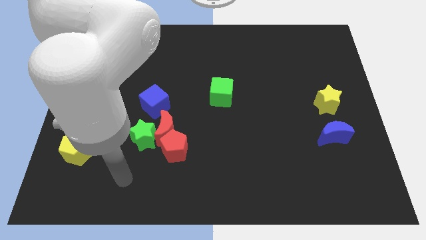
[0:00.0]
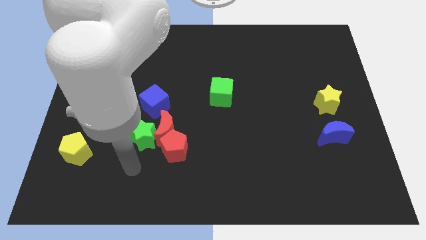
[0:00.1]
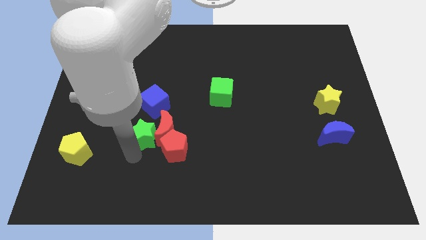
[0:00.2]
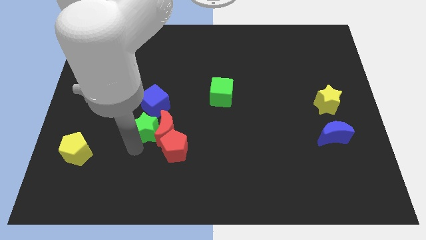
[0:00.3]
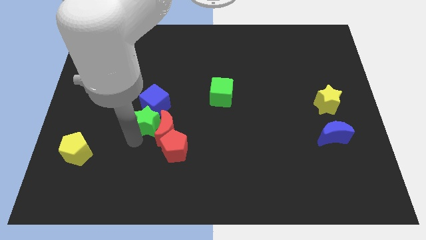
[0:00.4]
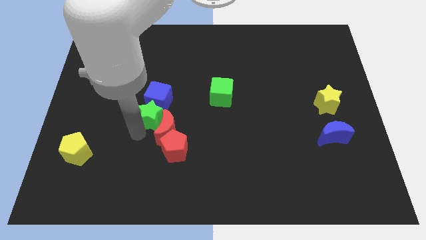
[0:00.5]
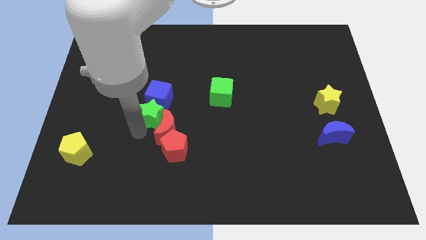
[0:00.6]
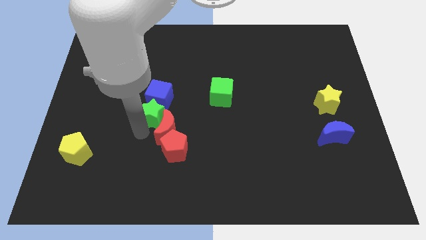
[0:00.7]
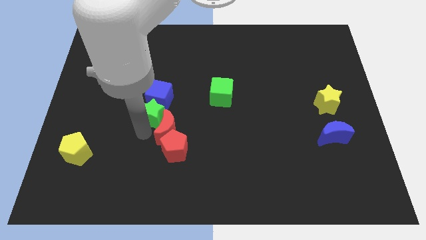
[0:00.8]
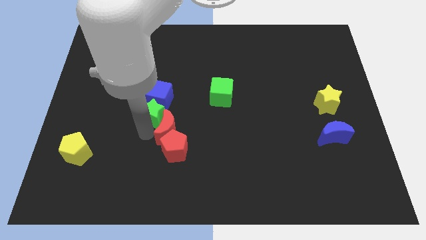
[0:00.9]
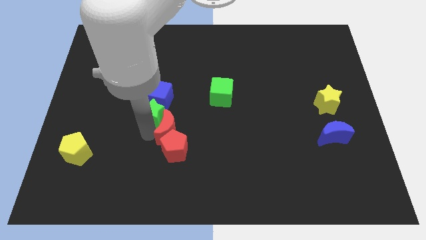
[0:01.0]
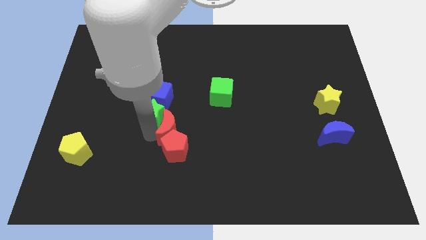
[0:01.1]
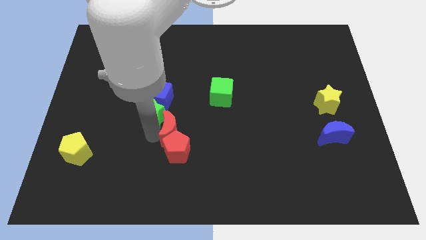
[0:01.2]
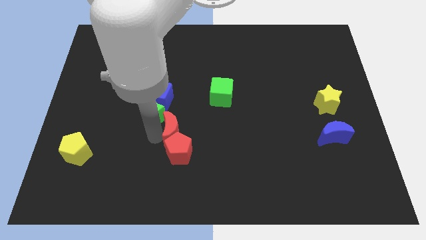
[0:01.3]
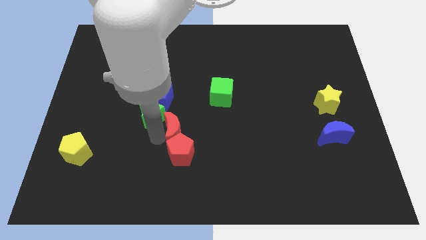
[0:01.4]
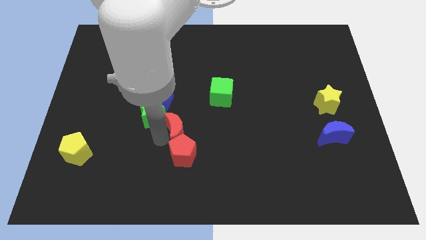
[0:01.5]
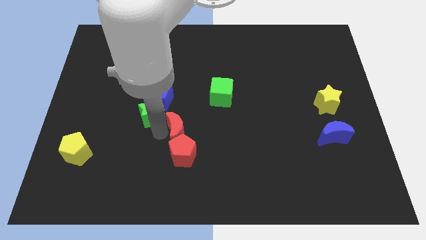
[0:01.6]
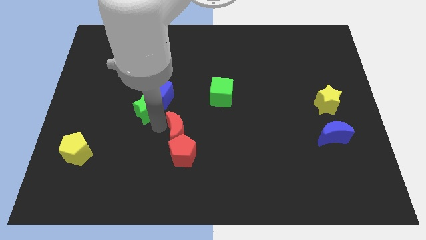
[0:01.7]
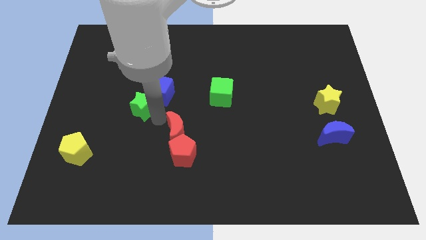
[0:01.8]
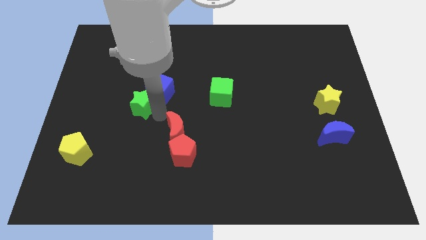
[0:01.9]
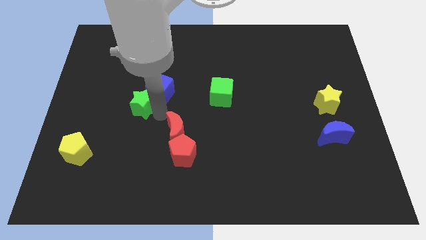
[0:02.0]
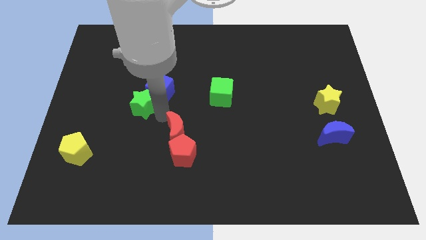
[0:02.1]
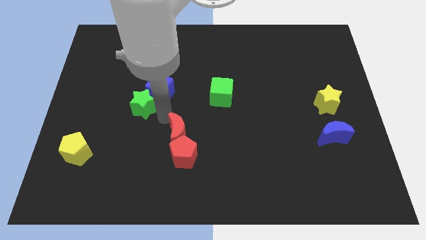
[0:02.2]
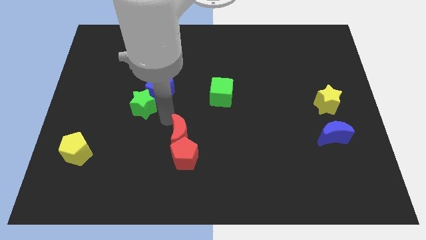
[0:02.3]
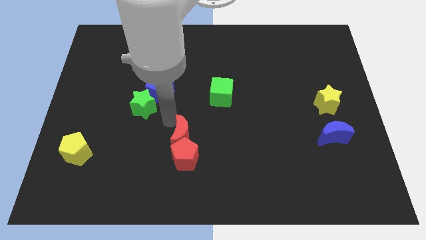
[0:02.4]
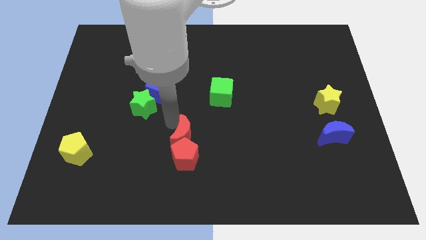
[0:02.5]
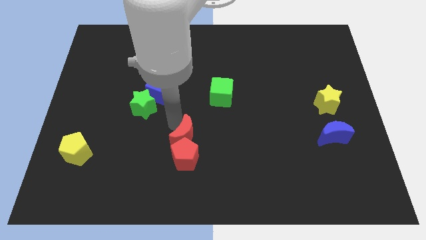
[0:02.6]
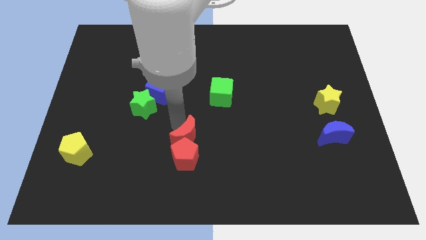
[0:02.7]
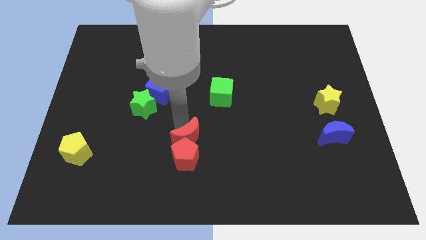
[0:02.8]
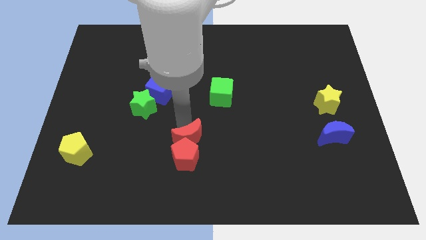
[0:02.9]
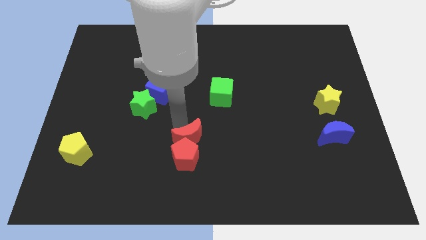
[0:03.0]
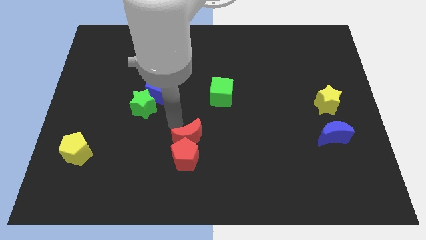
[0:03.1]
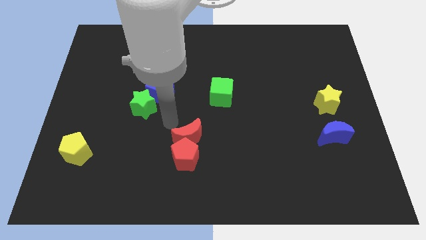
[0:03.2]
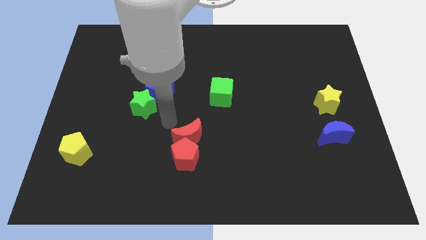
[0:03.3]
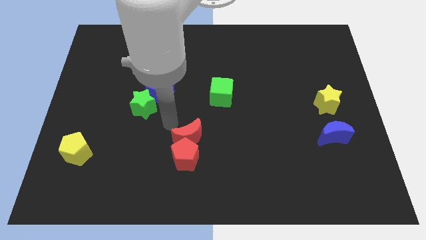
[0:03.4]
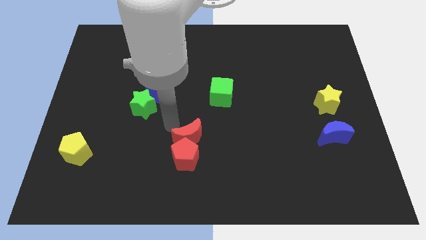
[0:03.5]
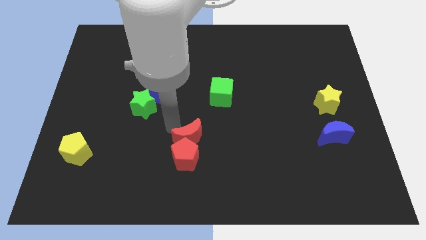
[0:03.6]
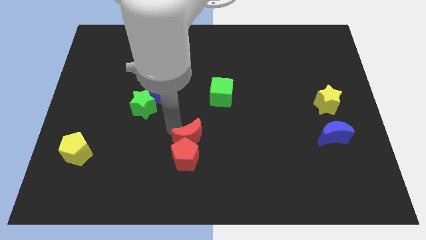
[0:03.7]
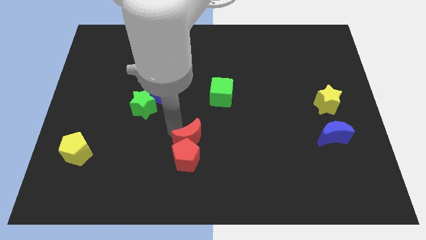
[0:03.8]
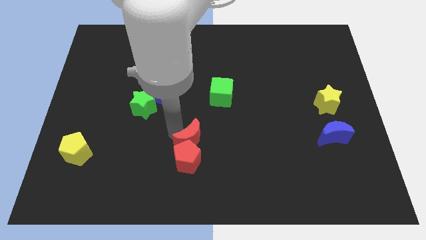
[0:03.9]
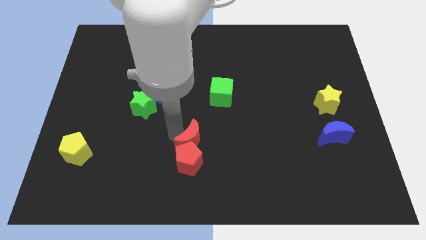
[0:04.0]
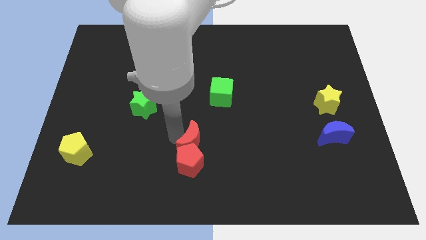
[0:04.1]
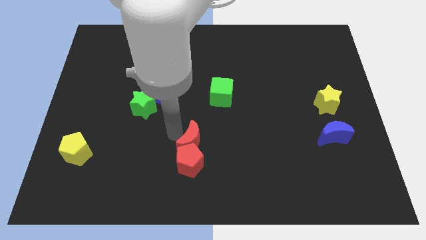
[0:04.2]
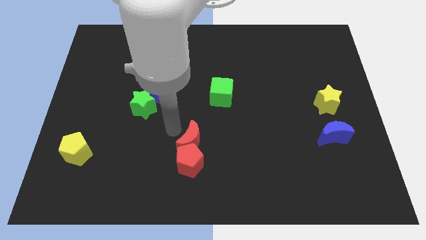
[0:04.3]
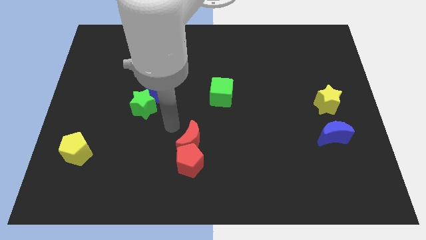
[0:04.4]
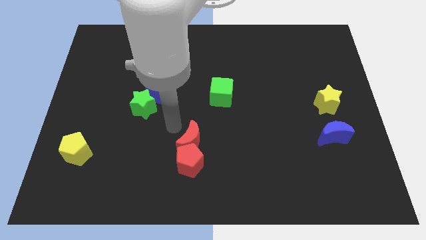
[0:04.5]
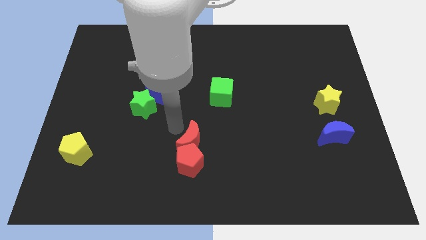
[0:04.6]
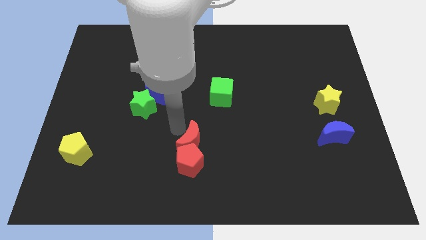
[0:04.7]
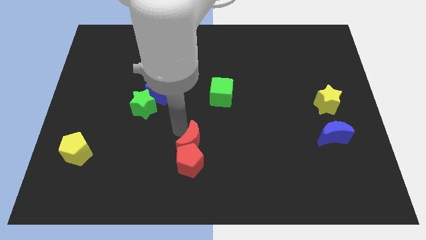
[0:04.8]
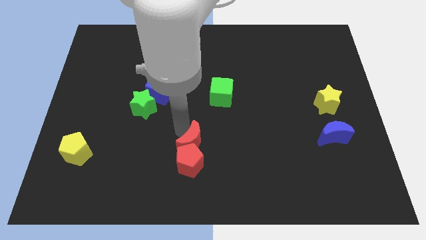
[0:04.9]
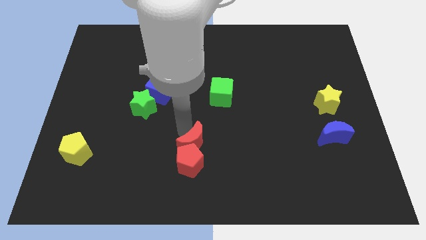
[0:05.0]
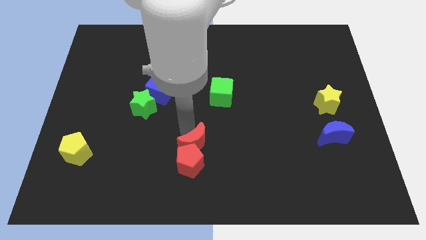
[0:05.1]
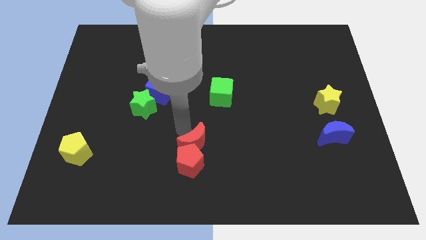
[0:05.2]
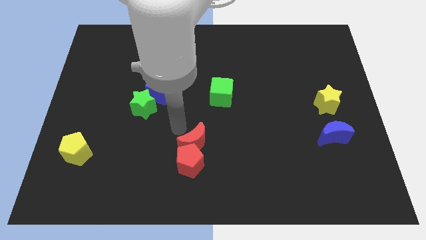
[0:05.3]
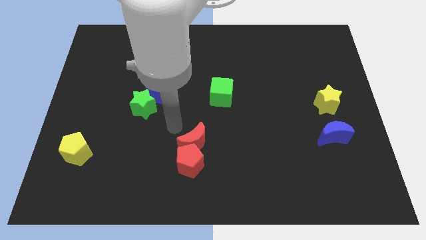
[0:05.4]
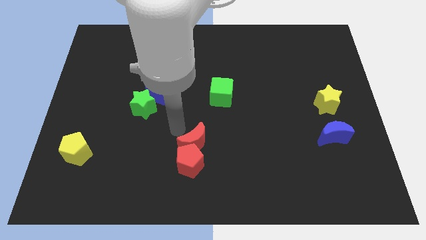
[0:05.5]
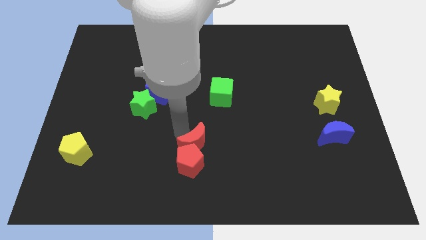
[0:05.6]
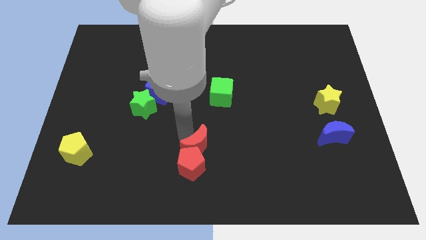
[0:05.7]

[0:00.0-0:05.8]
pull the red moon apart from the red pentagon, green star, and blue cube

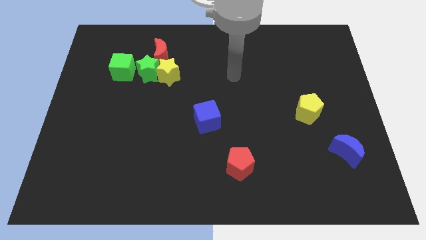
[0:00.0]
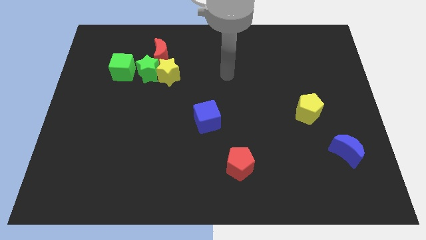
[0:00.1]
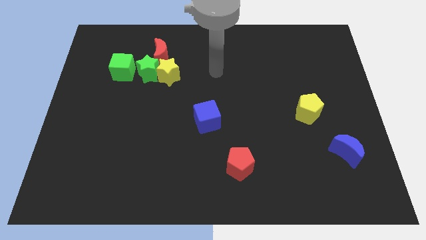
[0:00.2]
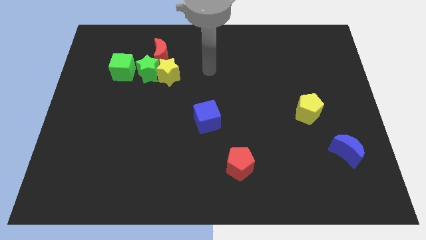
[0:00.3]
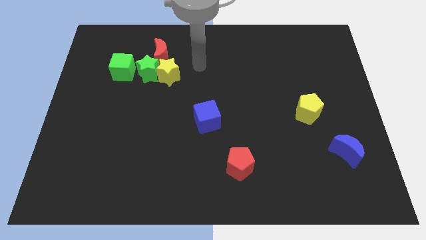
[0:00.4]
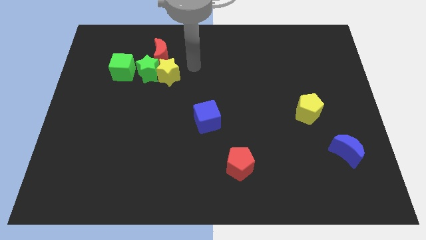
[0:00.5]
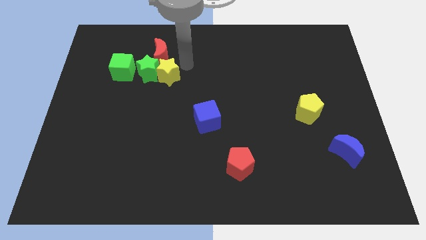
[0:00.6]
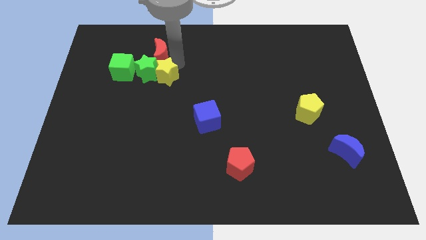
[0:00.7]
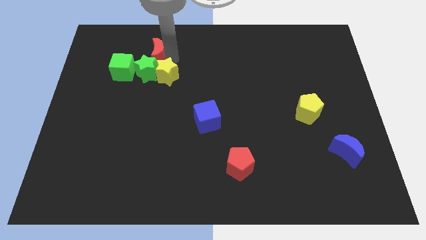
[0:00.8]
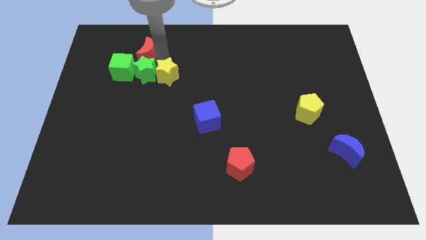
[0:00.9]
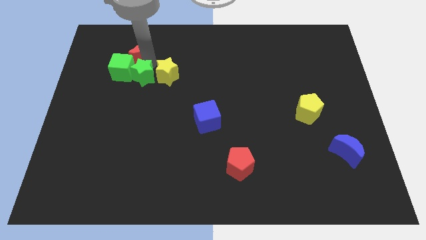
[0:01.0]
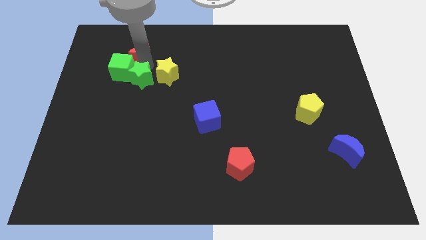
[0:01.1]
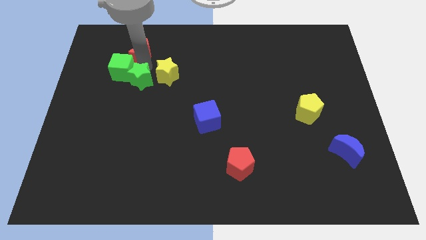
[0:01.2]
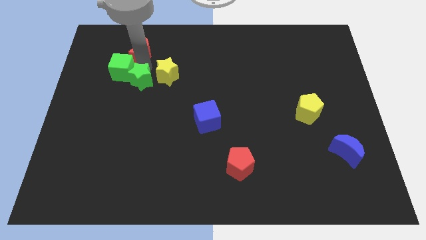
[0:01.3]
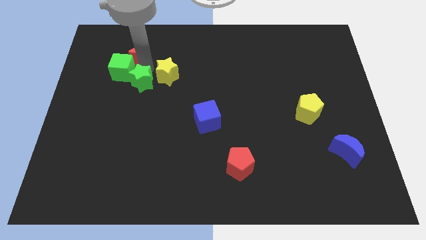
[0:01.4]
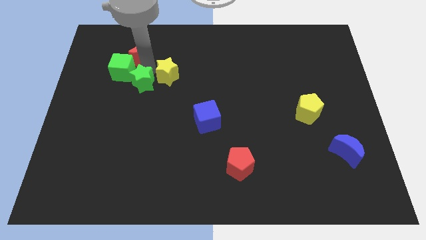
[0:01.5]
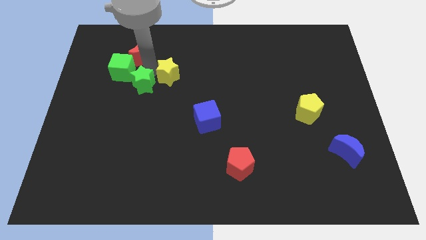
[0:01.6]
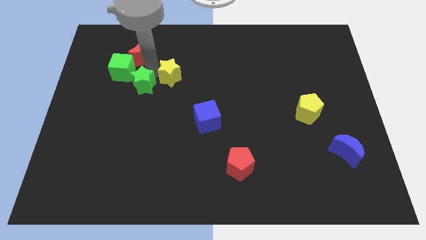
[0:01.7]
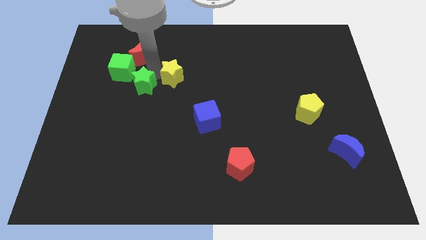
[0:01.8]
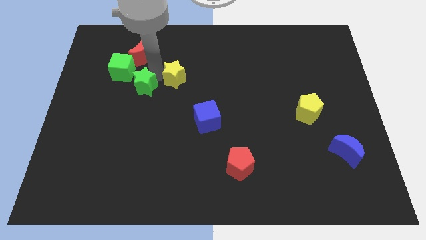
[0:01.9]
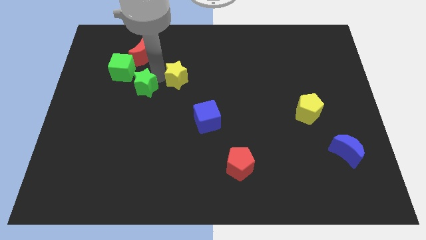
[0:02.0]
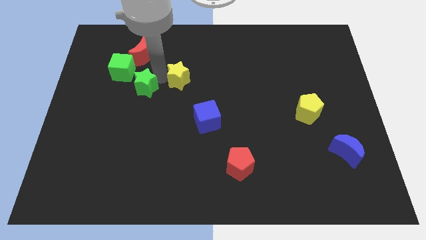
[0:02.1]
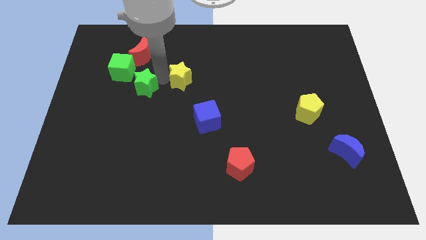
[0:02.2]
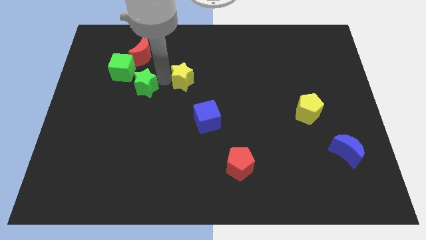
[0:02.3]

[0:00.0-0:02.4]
separate the yellow star from the green star and red moon

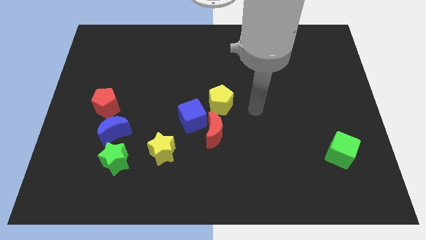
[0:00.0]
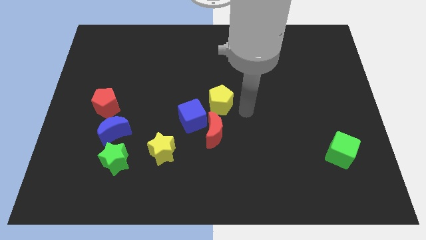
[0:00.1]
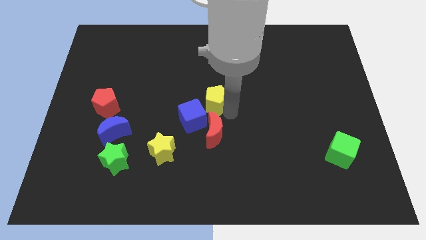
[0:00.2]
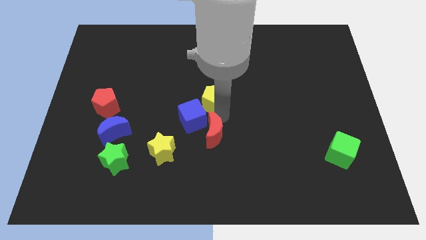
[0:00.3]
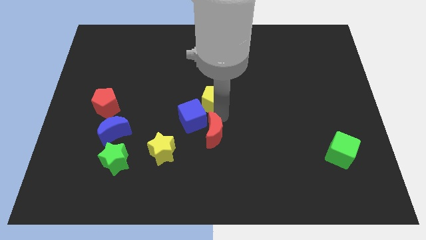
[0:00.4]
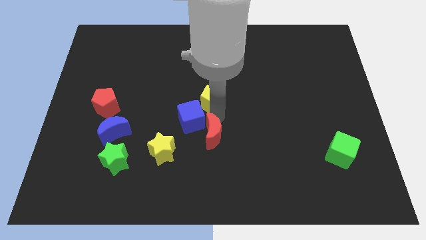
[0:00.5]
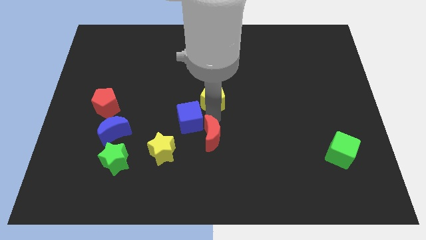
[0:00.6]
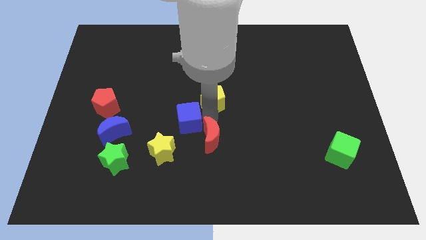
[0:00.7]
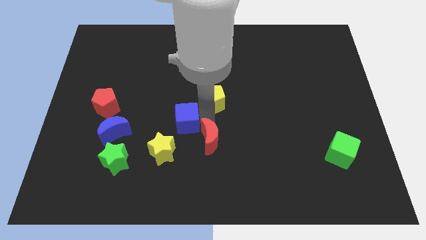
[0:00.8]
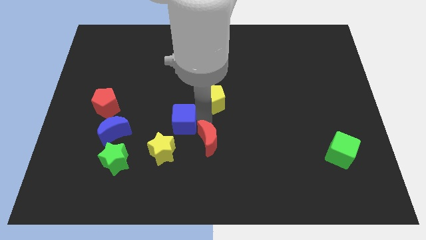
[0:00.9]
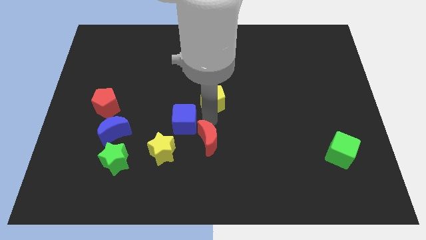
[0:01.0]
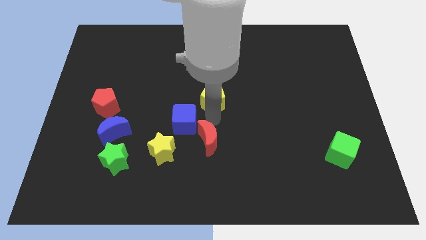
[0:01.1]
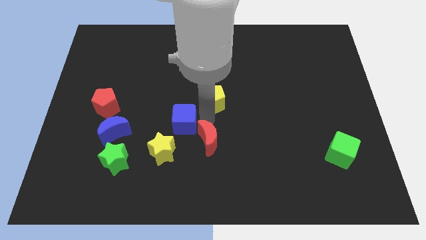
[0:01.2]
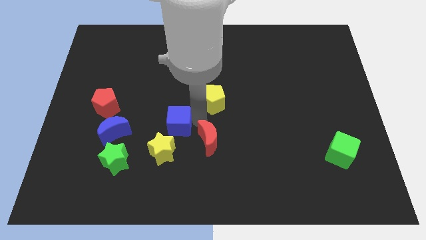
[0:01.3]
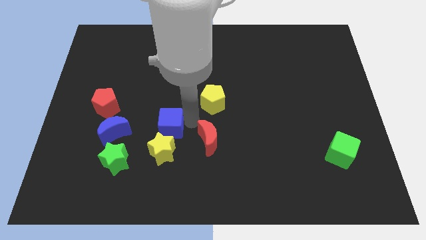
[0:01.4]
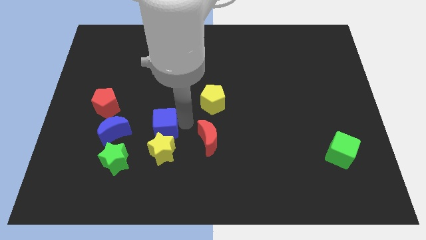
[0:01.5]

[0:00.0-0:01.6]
pull the blue cube apart from the red moon and yellow pentagon
